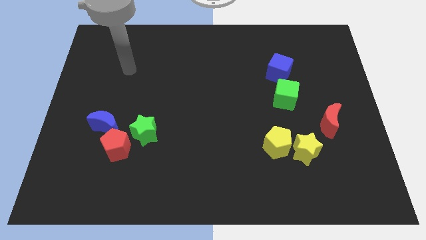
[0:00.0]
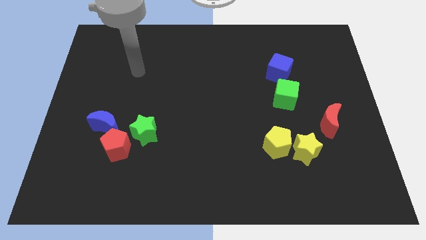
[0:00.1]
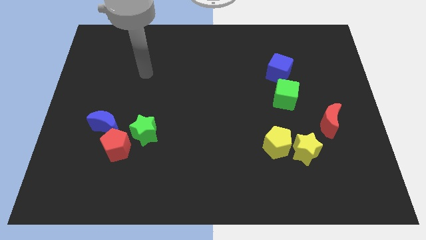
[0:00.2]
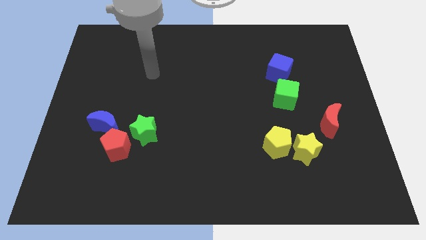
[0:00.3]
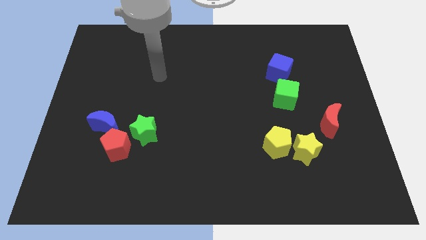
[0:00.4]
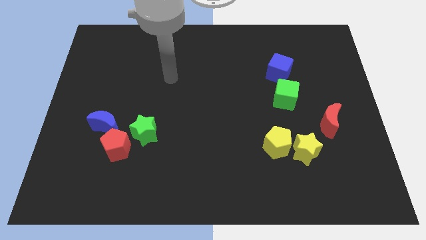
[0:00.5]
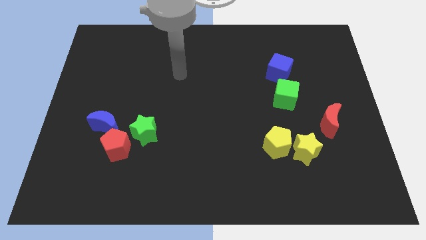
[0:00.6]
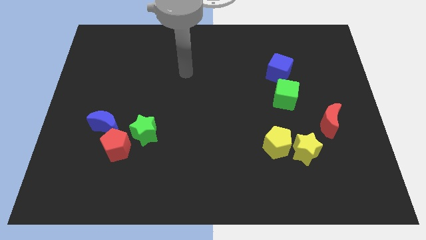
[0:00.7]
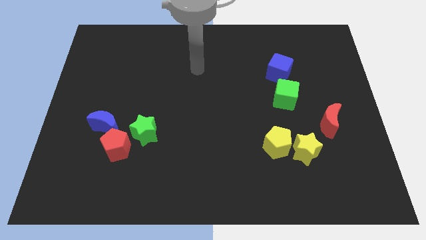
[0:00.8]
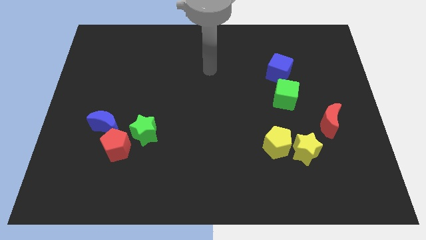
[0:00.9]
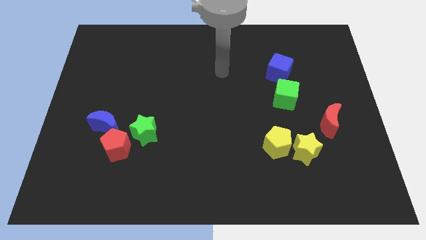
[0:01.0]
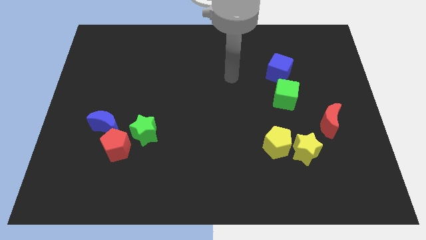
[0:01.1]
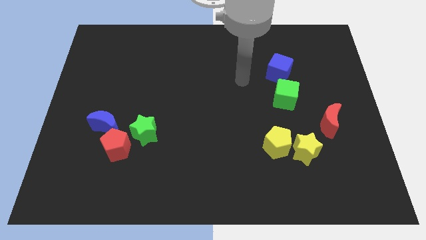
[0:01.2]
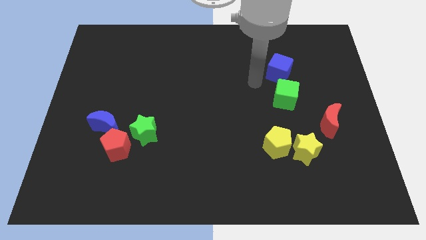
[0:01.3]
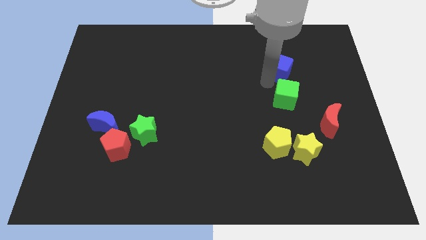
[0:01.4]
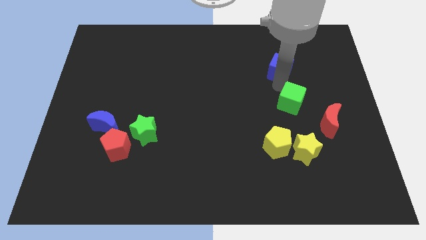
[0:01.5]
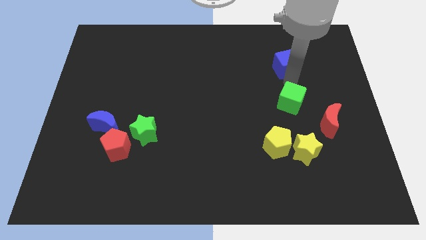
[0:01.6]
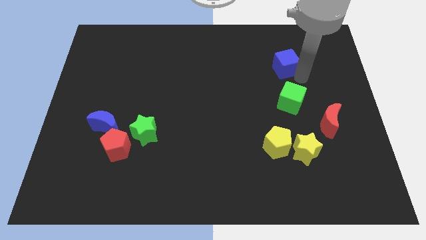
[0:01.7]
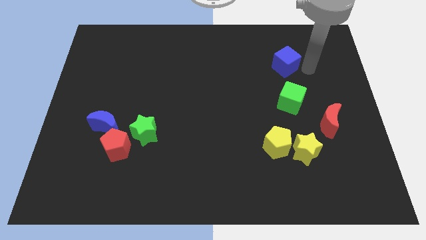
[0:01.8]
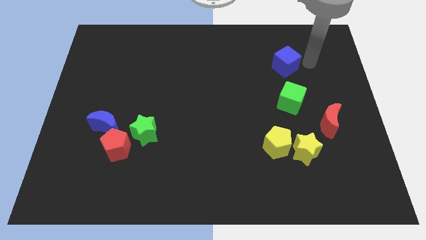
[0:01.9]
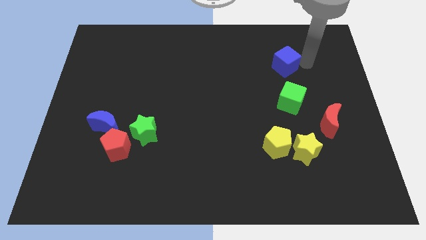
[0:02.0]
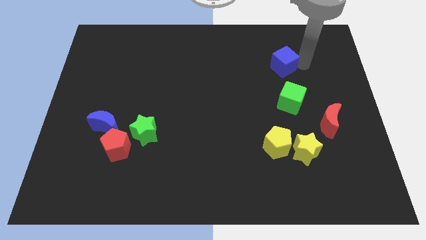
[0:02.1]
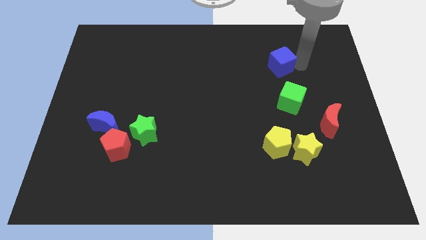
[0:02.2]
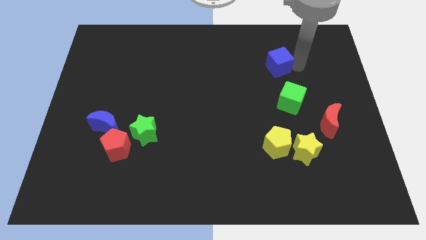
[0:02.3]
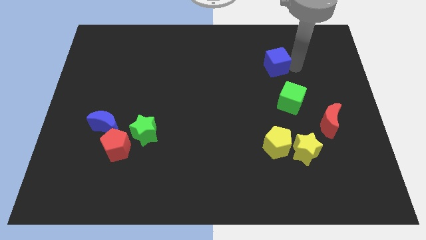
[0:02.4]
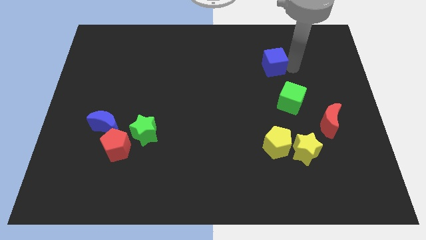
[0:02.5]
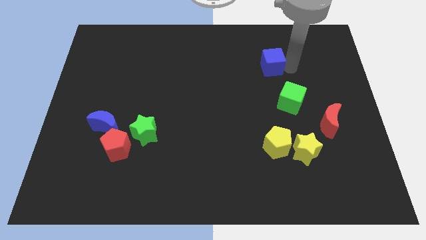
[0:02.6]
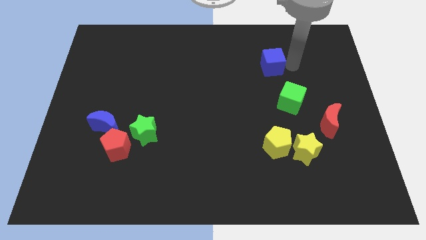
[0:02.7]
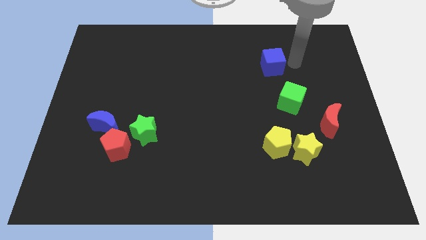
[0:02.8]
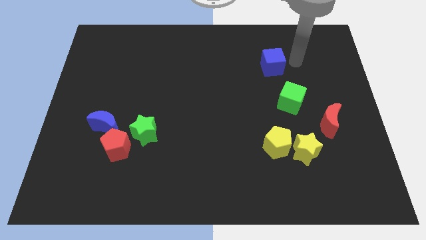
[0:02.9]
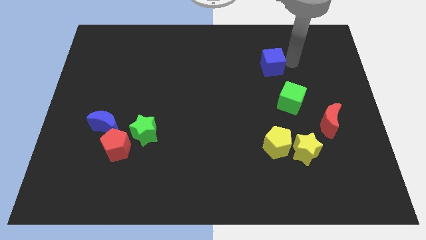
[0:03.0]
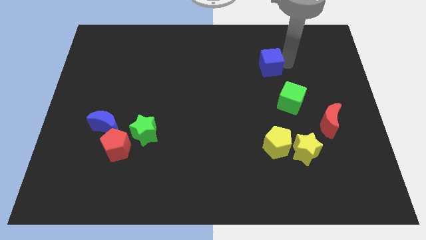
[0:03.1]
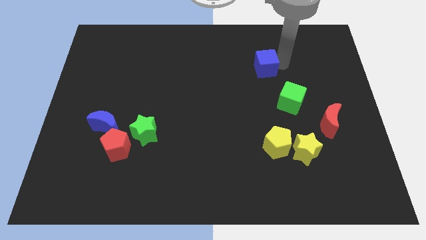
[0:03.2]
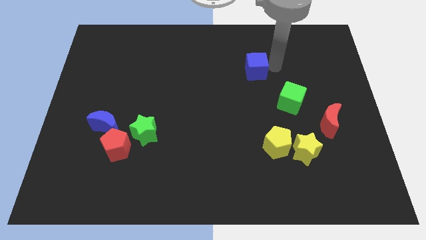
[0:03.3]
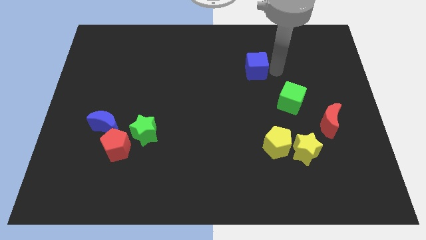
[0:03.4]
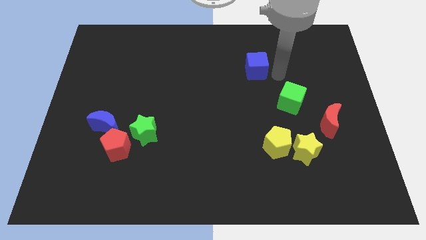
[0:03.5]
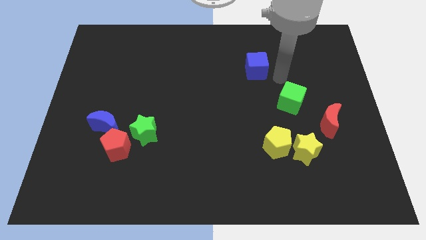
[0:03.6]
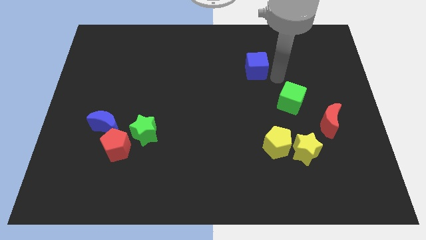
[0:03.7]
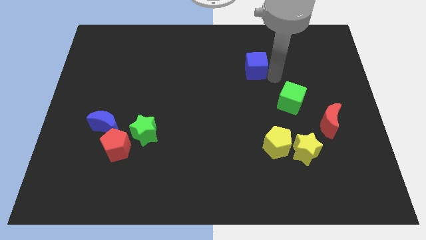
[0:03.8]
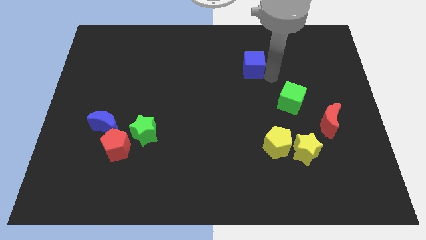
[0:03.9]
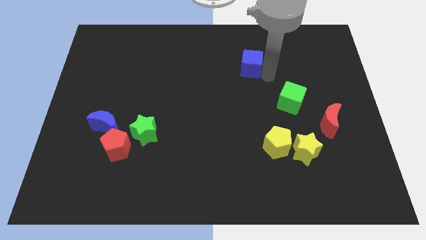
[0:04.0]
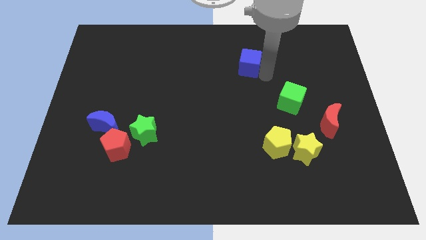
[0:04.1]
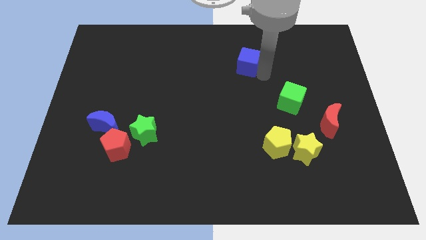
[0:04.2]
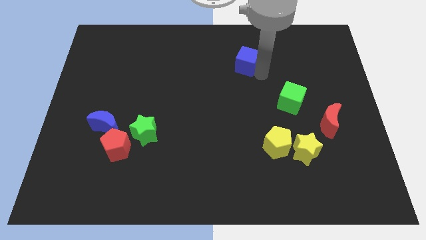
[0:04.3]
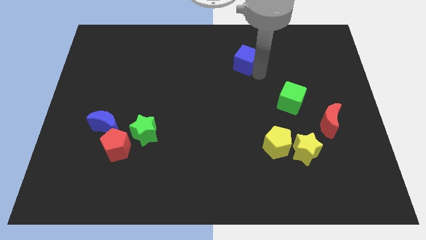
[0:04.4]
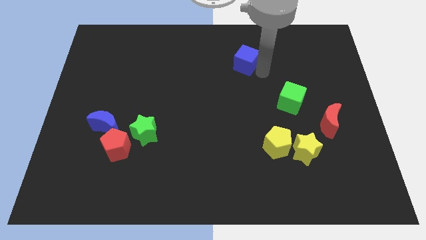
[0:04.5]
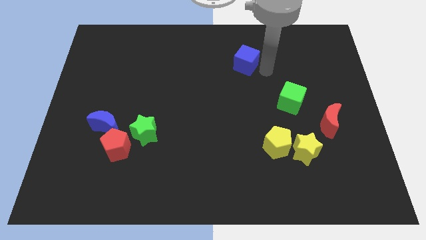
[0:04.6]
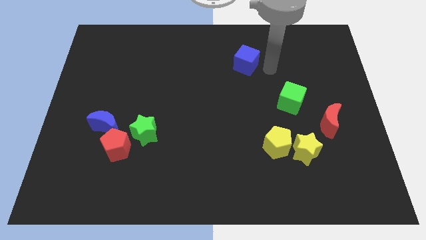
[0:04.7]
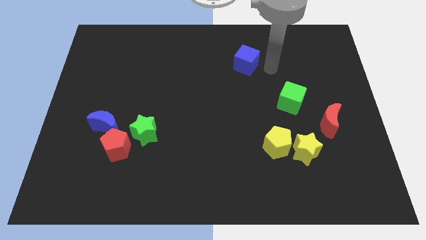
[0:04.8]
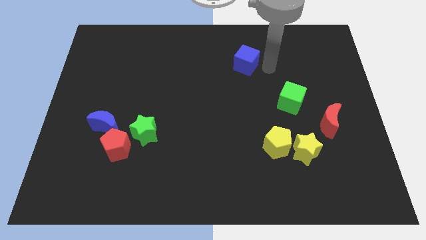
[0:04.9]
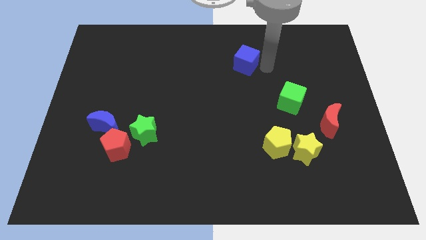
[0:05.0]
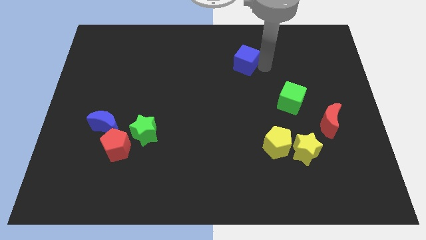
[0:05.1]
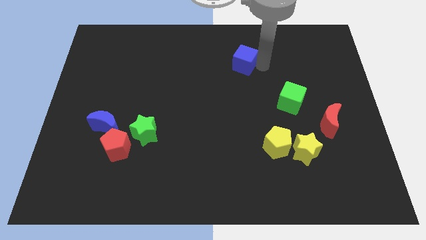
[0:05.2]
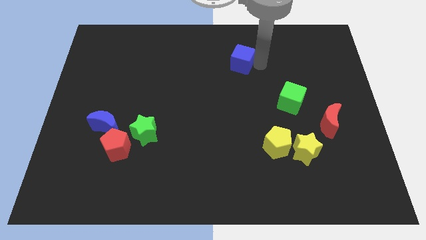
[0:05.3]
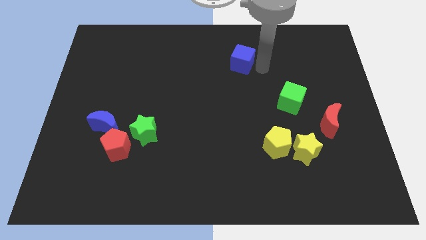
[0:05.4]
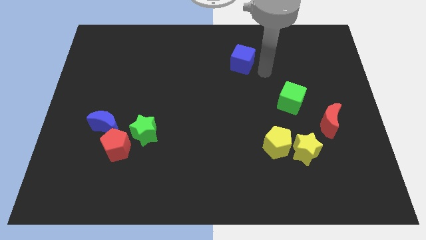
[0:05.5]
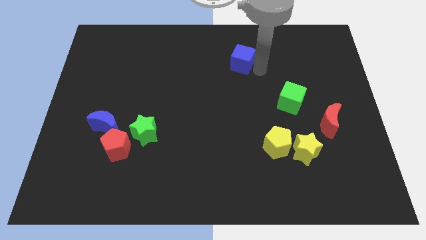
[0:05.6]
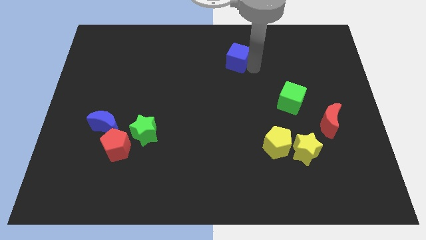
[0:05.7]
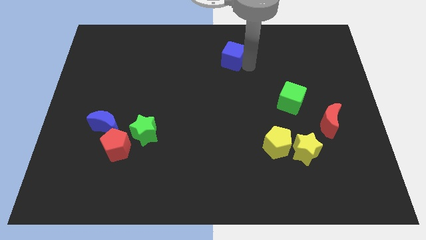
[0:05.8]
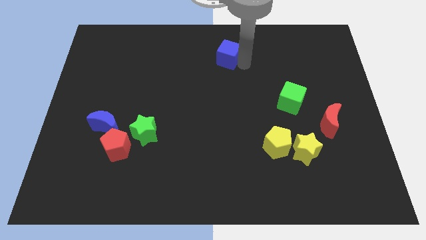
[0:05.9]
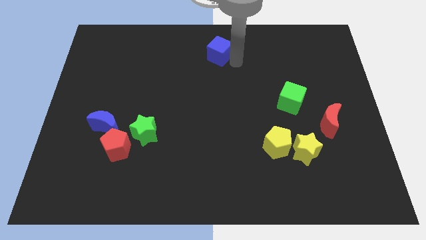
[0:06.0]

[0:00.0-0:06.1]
slide the blue cube to the towards your base
